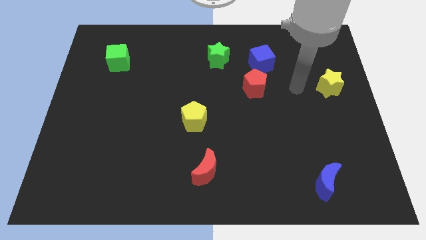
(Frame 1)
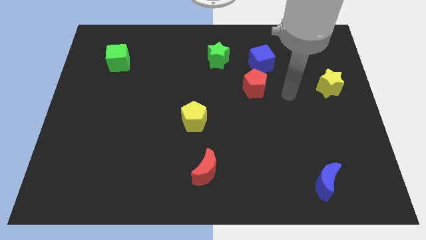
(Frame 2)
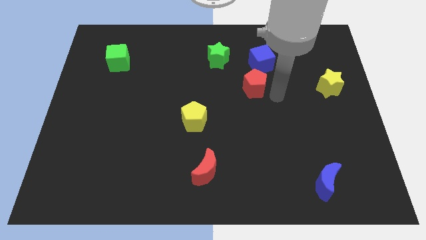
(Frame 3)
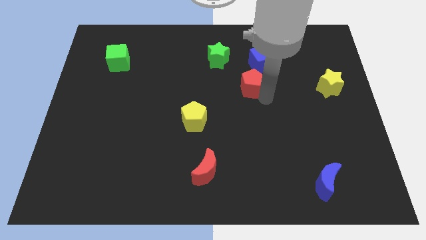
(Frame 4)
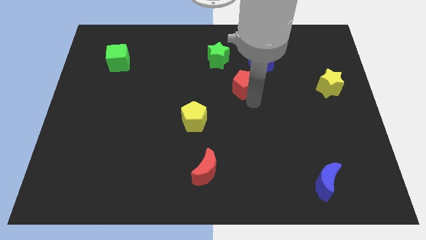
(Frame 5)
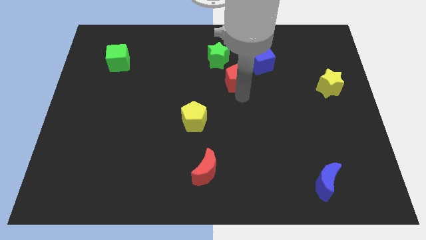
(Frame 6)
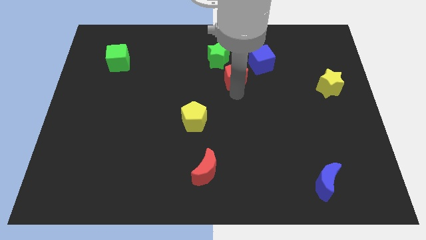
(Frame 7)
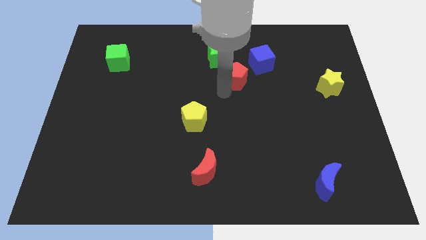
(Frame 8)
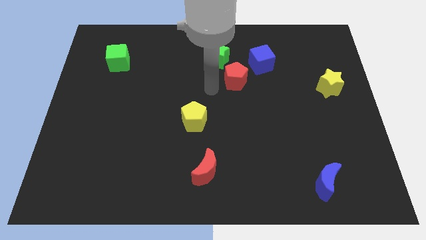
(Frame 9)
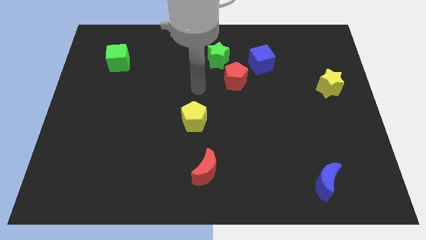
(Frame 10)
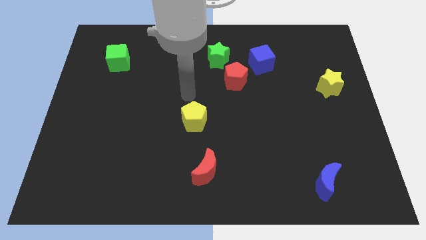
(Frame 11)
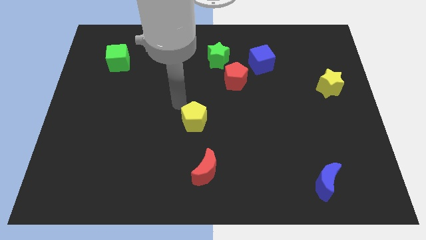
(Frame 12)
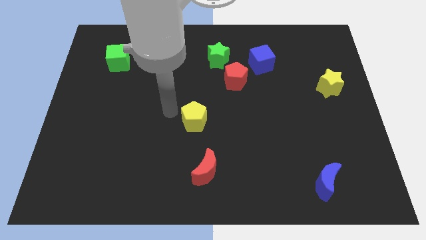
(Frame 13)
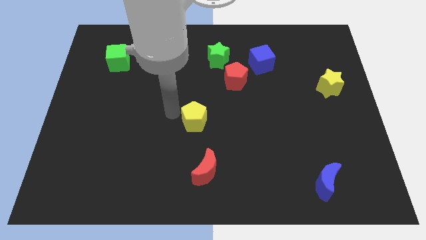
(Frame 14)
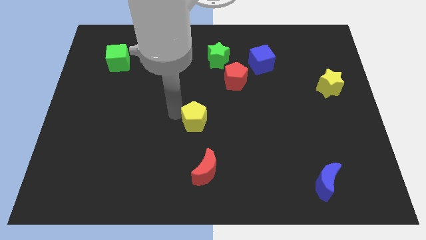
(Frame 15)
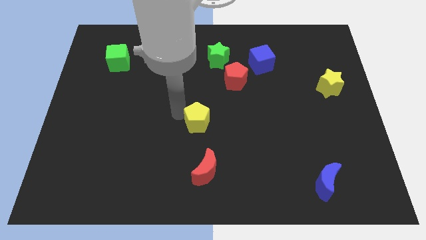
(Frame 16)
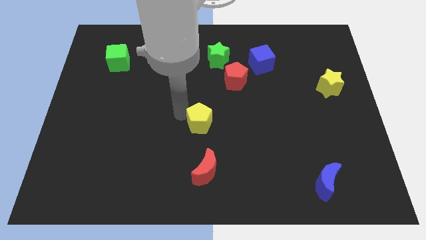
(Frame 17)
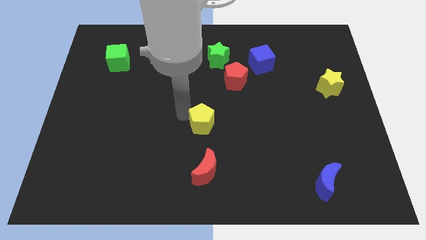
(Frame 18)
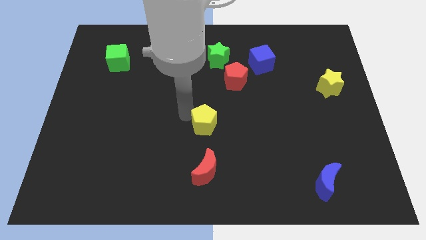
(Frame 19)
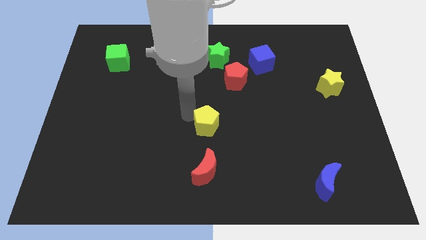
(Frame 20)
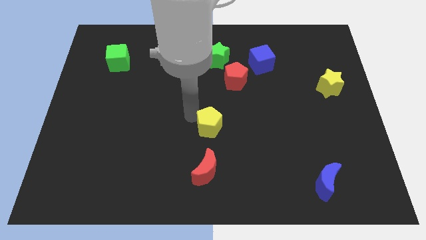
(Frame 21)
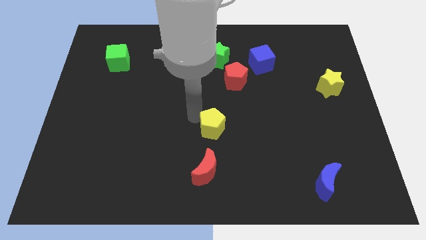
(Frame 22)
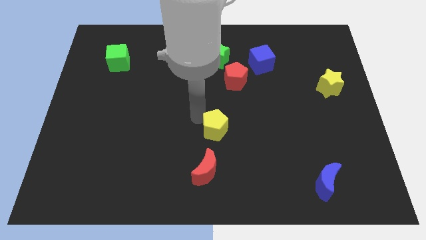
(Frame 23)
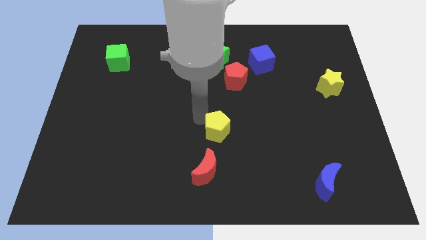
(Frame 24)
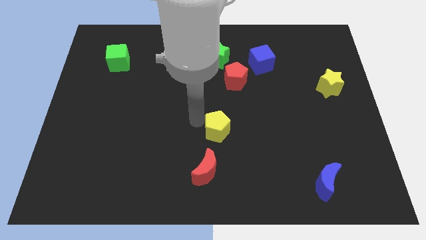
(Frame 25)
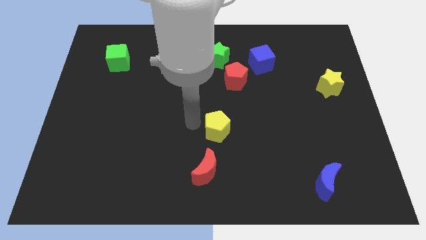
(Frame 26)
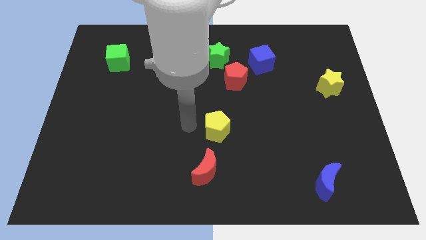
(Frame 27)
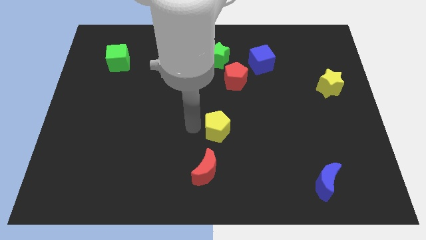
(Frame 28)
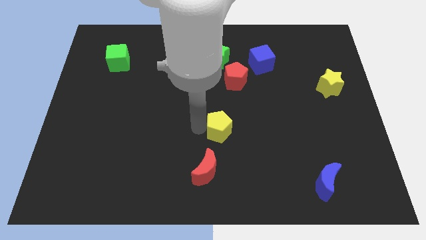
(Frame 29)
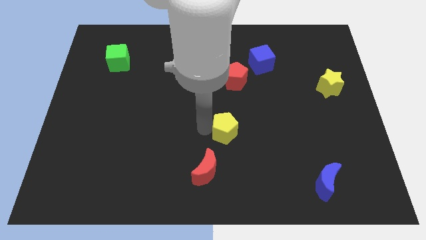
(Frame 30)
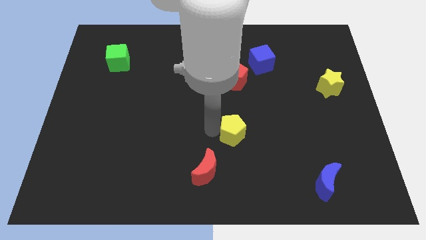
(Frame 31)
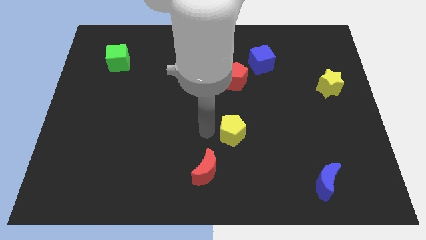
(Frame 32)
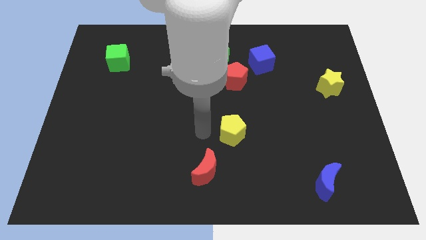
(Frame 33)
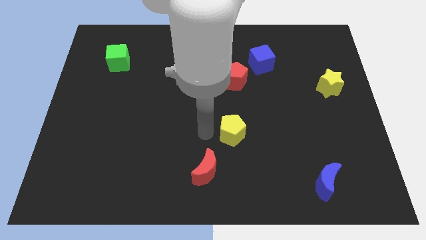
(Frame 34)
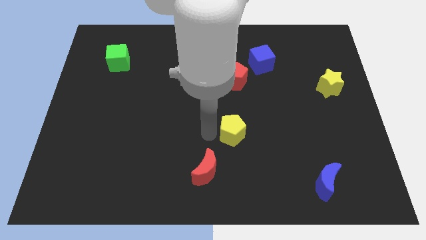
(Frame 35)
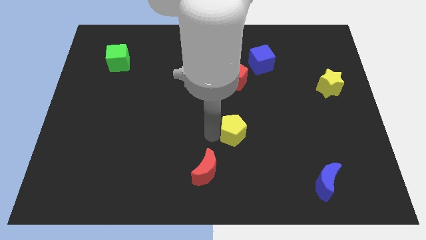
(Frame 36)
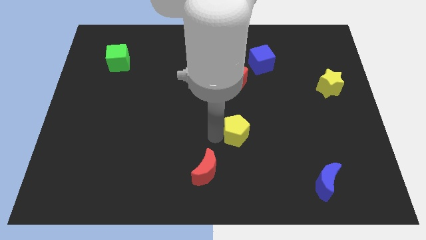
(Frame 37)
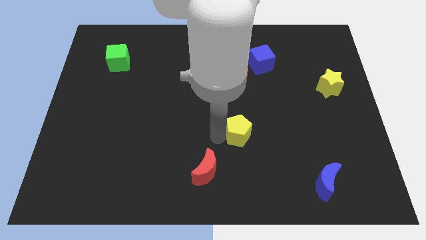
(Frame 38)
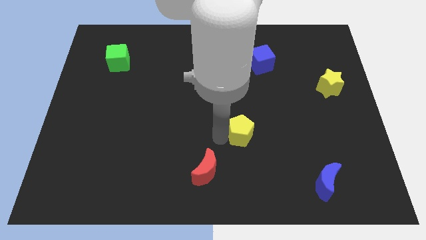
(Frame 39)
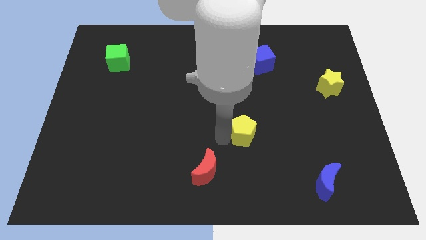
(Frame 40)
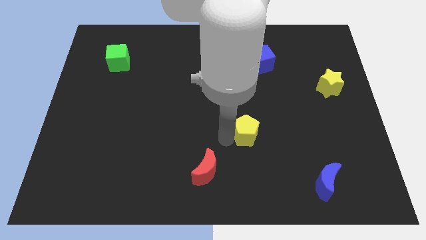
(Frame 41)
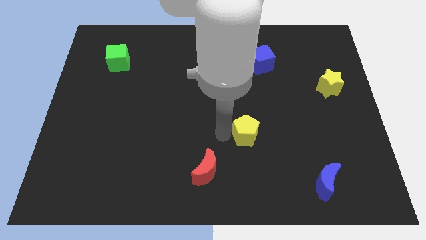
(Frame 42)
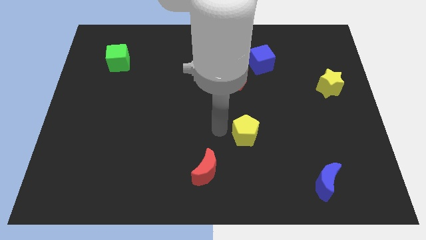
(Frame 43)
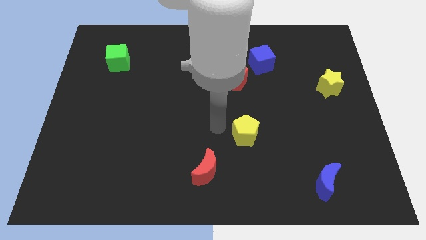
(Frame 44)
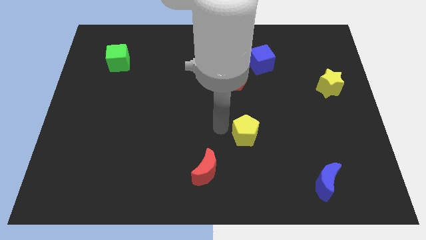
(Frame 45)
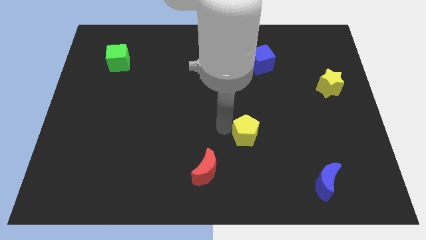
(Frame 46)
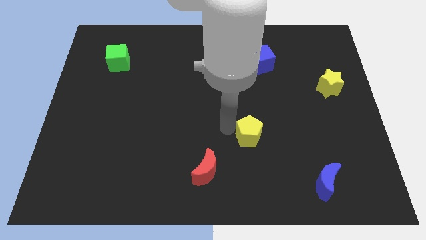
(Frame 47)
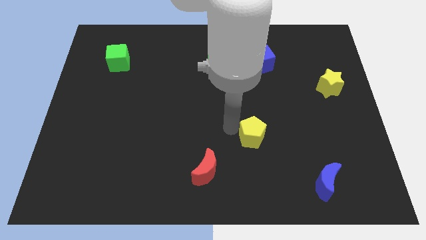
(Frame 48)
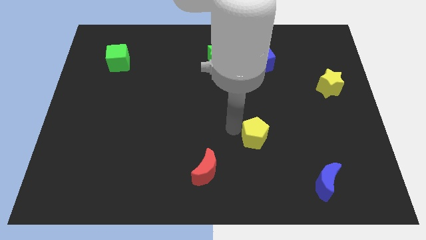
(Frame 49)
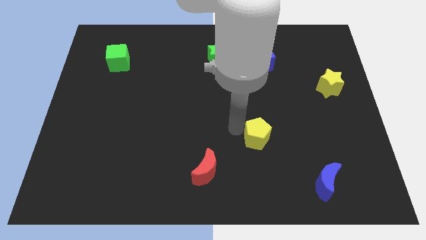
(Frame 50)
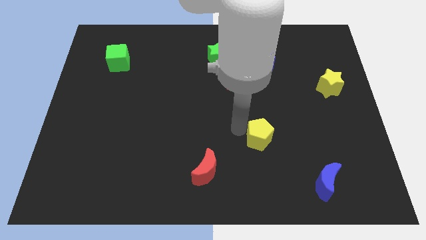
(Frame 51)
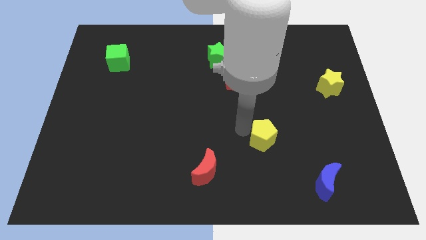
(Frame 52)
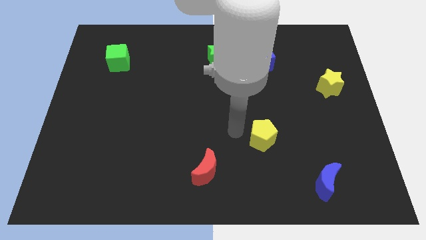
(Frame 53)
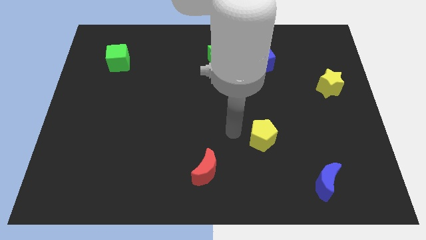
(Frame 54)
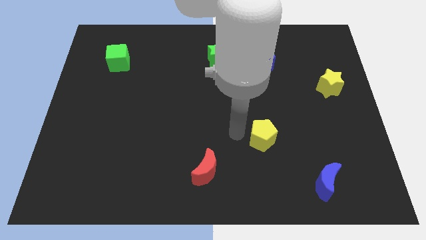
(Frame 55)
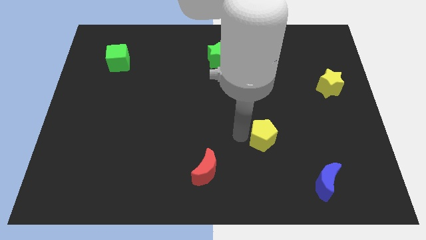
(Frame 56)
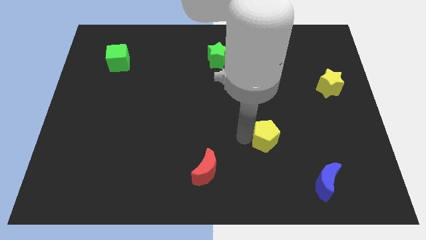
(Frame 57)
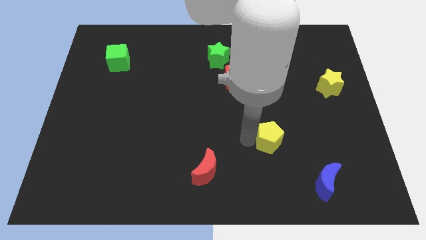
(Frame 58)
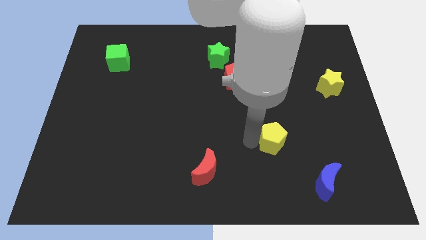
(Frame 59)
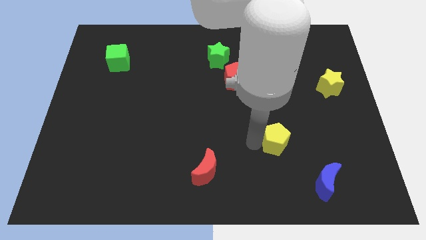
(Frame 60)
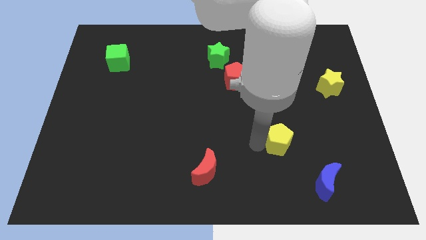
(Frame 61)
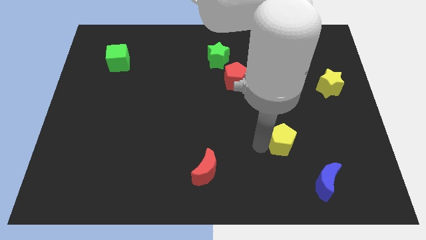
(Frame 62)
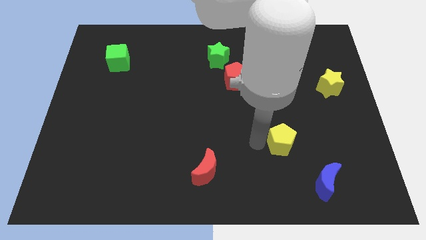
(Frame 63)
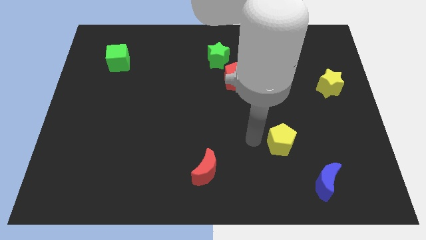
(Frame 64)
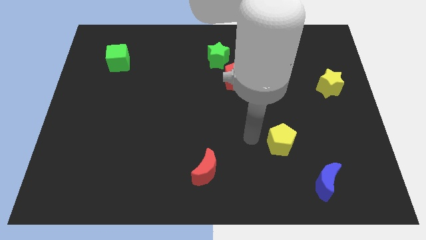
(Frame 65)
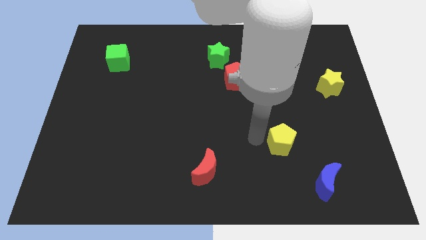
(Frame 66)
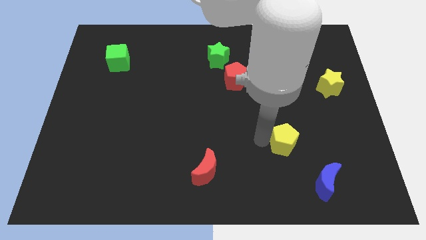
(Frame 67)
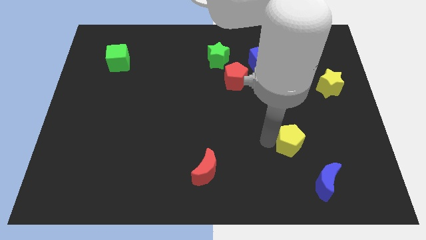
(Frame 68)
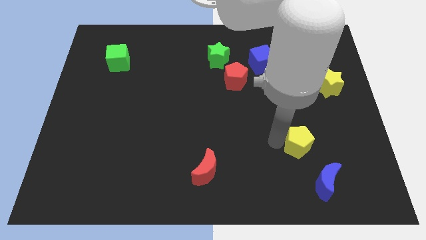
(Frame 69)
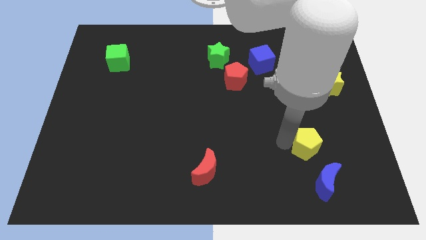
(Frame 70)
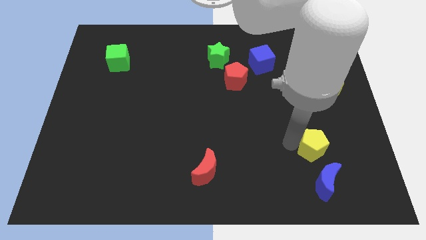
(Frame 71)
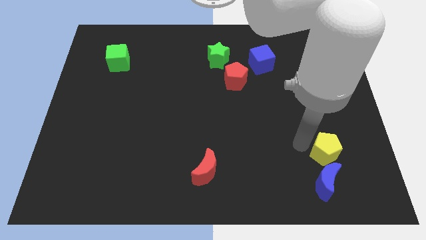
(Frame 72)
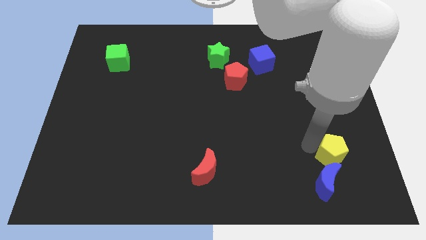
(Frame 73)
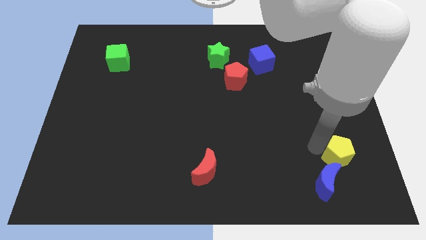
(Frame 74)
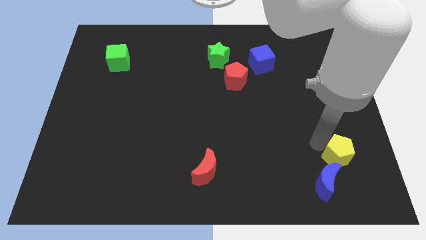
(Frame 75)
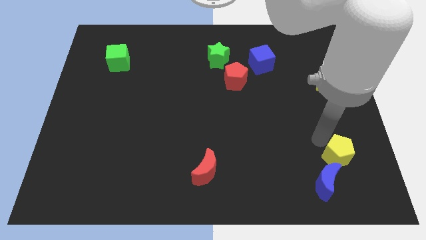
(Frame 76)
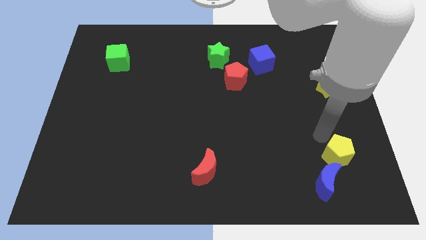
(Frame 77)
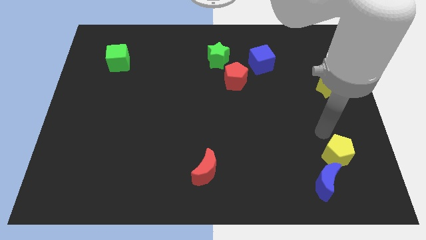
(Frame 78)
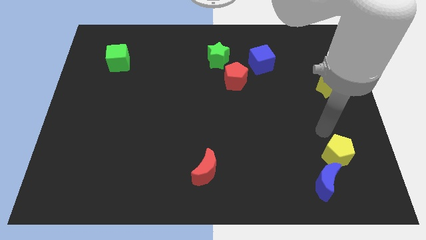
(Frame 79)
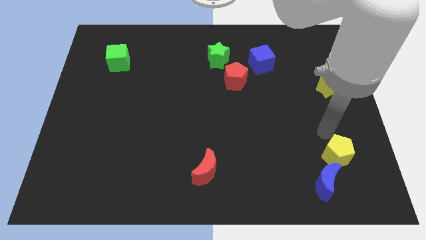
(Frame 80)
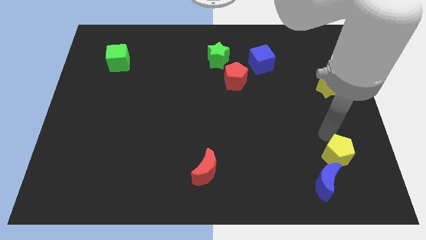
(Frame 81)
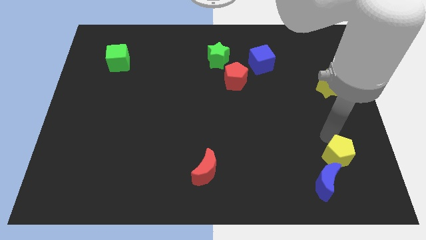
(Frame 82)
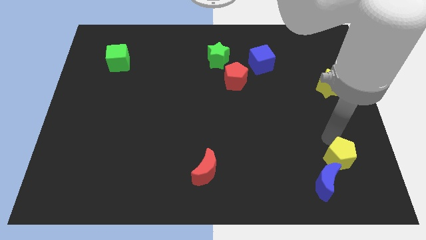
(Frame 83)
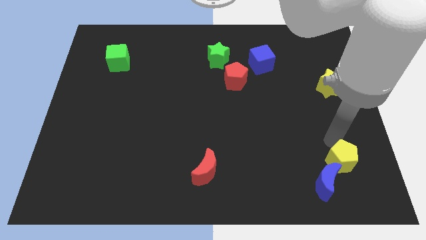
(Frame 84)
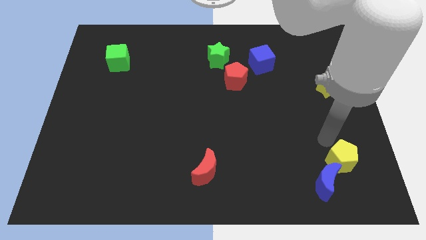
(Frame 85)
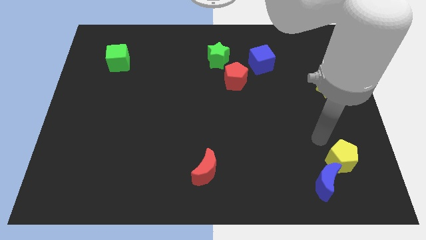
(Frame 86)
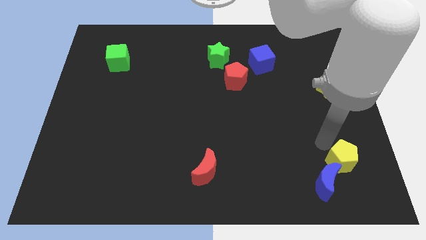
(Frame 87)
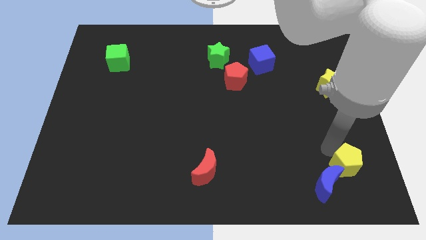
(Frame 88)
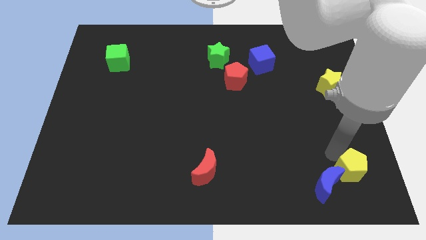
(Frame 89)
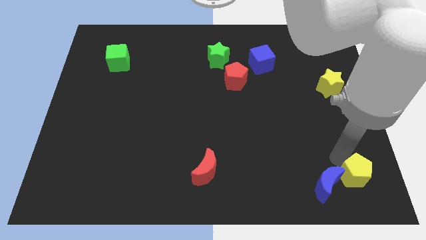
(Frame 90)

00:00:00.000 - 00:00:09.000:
slide the yellow pentagon to the bottom right
